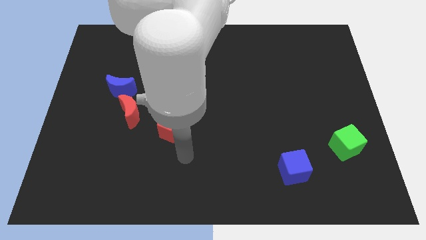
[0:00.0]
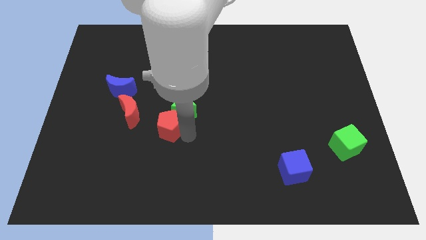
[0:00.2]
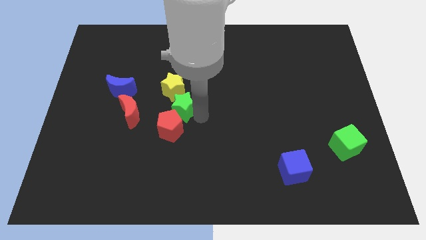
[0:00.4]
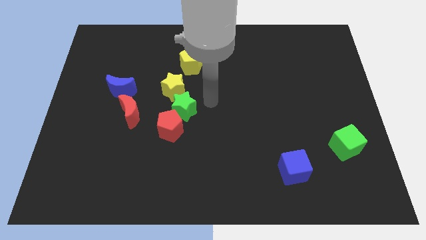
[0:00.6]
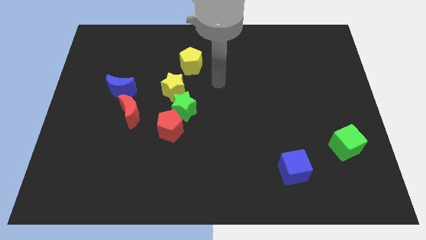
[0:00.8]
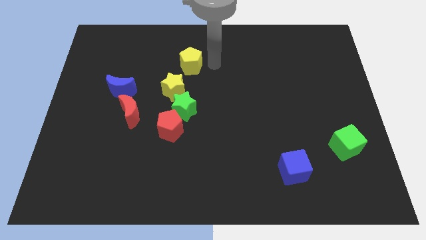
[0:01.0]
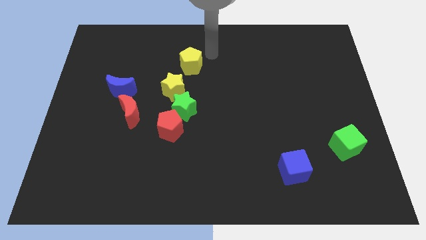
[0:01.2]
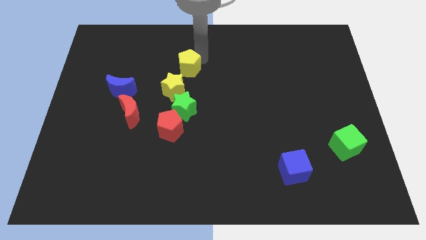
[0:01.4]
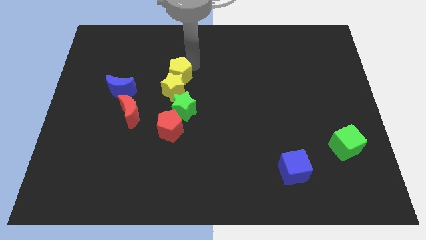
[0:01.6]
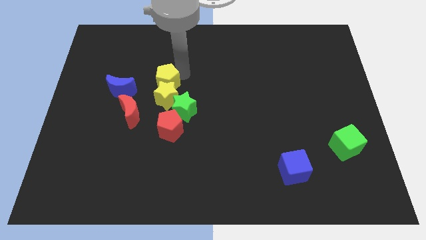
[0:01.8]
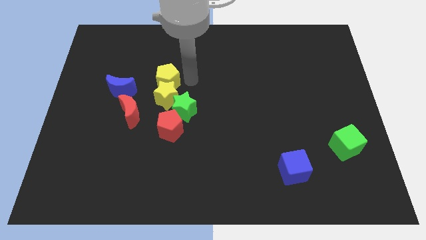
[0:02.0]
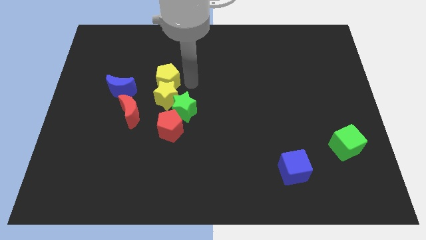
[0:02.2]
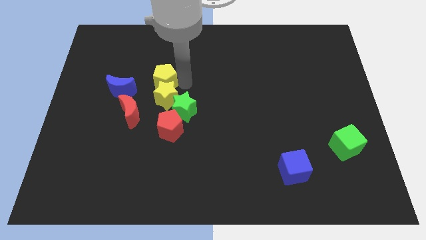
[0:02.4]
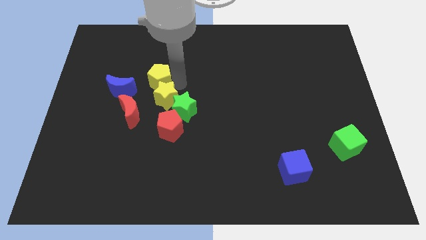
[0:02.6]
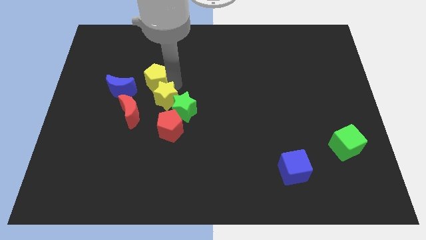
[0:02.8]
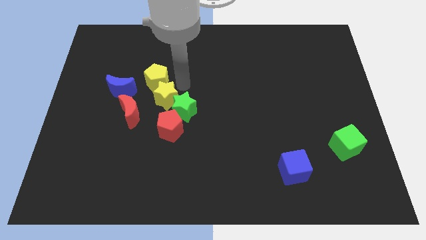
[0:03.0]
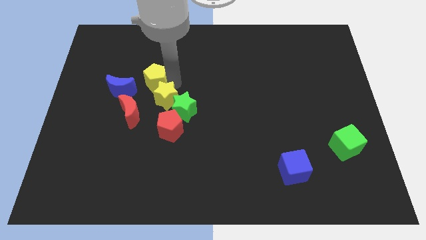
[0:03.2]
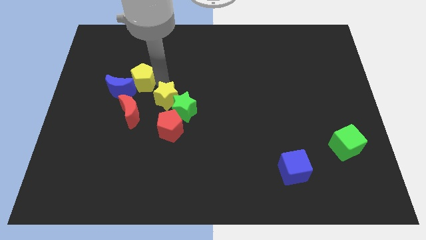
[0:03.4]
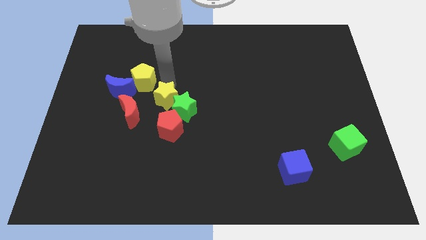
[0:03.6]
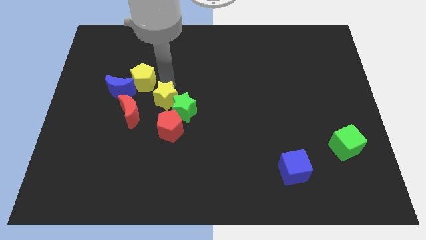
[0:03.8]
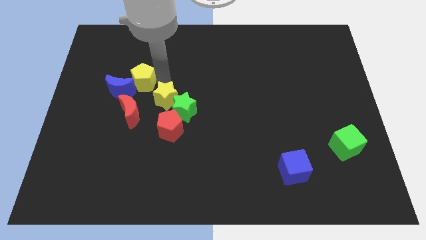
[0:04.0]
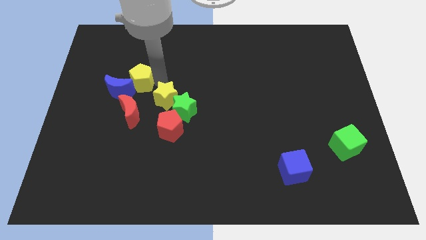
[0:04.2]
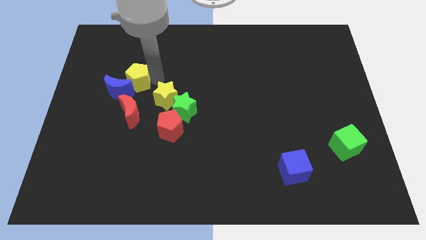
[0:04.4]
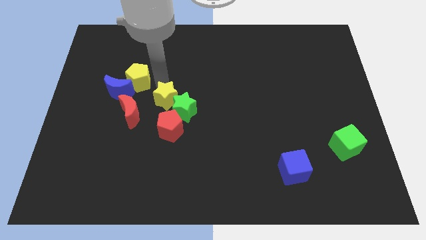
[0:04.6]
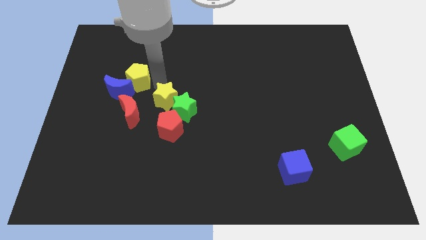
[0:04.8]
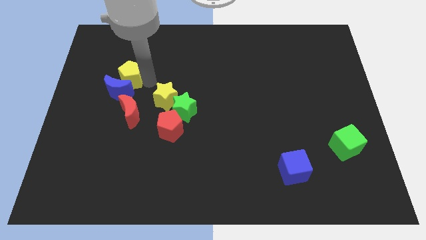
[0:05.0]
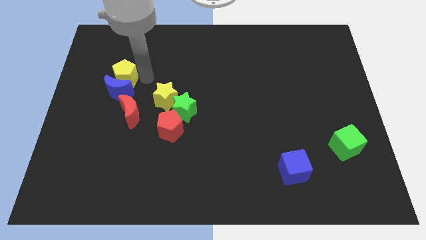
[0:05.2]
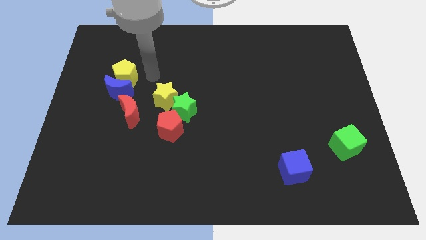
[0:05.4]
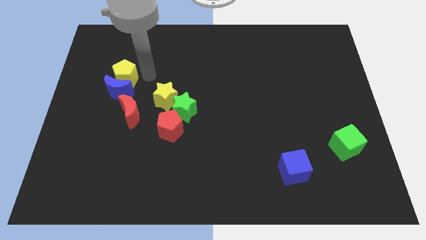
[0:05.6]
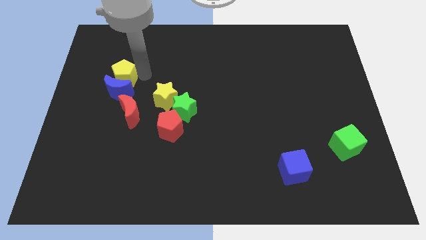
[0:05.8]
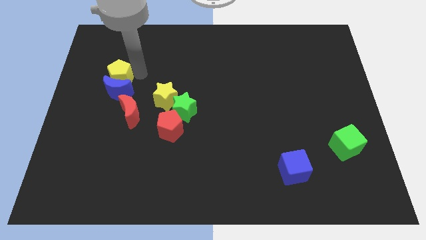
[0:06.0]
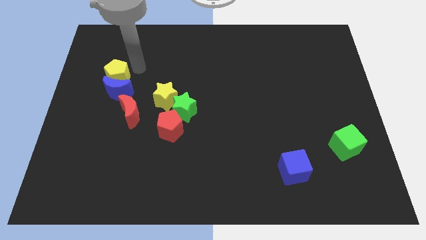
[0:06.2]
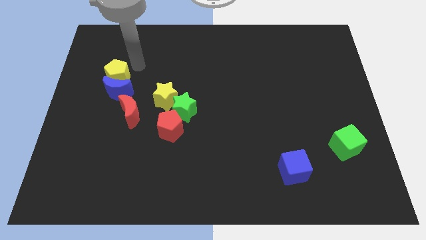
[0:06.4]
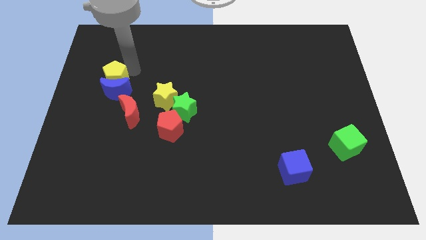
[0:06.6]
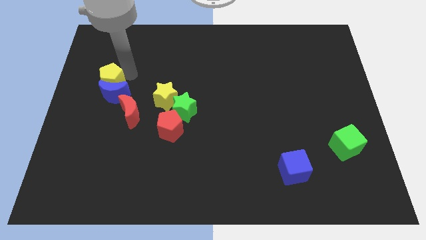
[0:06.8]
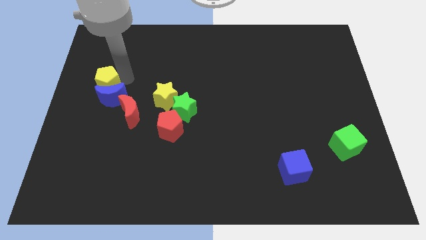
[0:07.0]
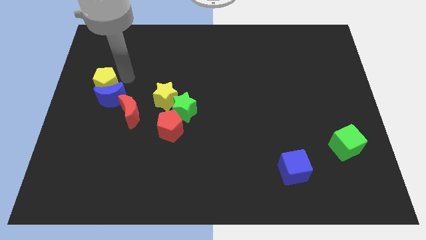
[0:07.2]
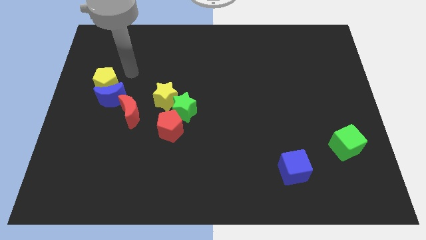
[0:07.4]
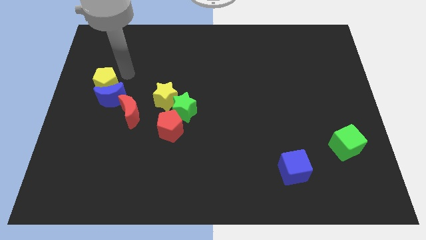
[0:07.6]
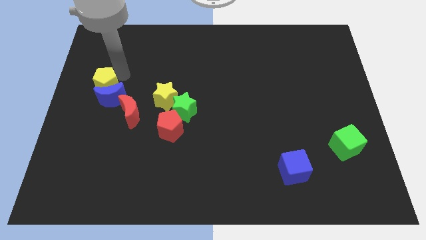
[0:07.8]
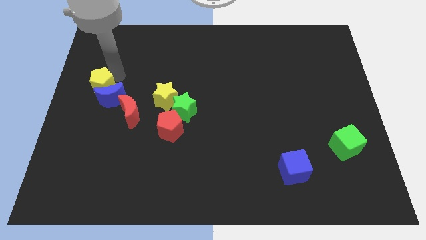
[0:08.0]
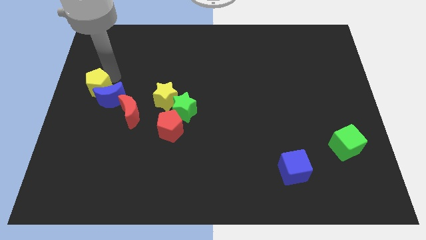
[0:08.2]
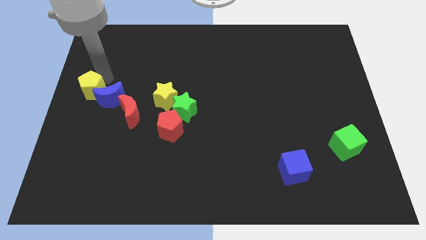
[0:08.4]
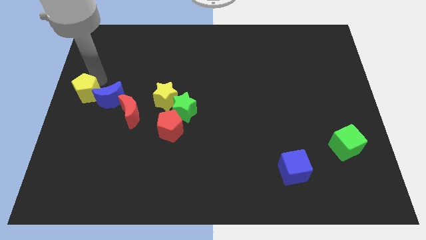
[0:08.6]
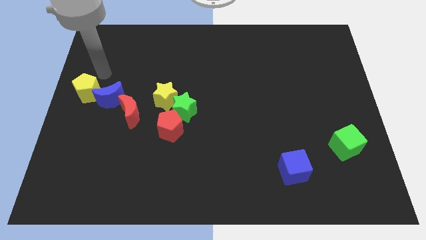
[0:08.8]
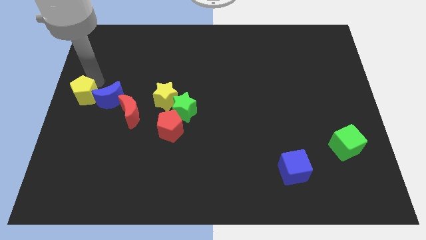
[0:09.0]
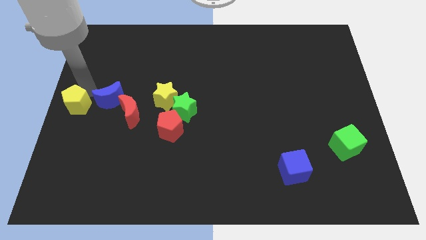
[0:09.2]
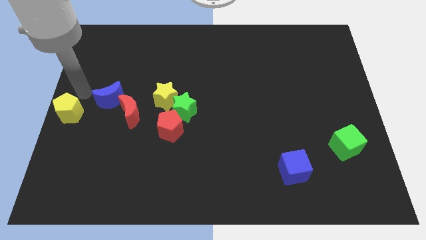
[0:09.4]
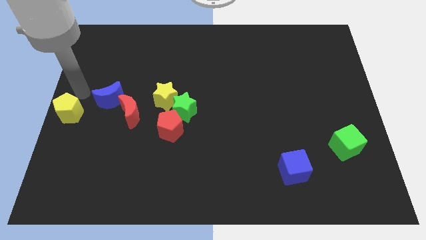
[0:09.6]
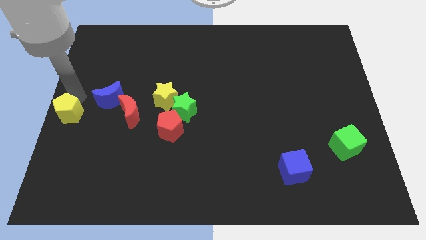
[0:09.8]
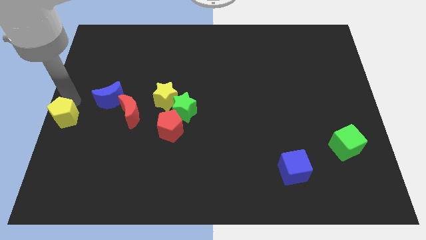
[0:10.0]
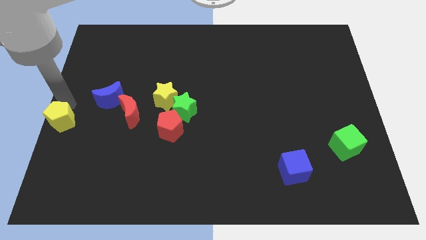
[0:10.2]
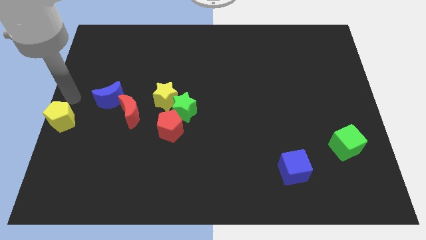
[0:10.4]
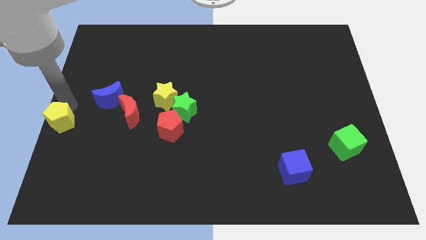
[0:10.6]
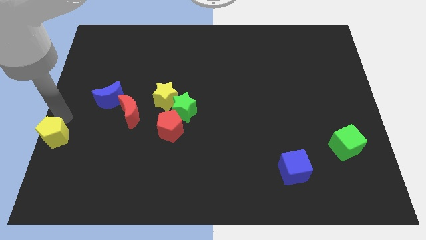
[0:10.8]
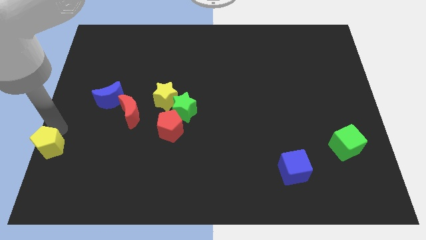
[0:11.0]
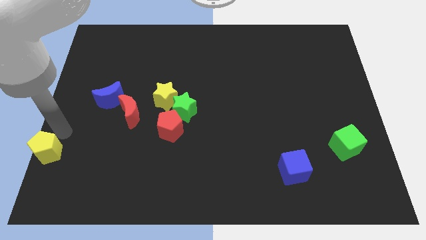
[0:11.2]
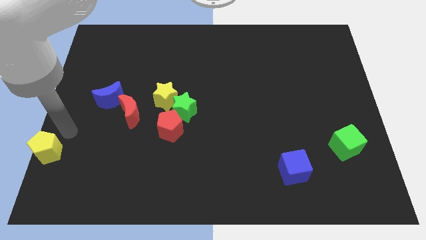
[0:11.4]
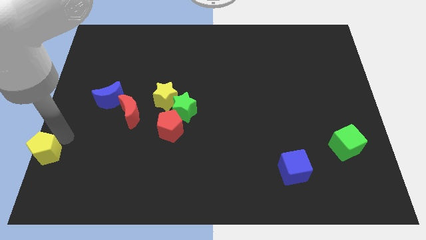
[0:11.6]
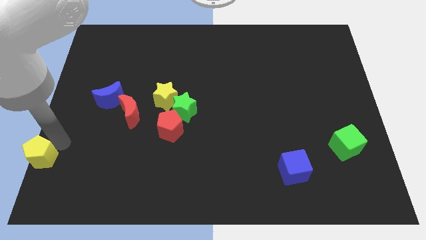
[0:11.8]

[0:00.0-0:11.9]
push the yellow pentagon to the bottom left
